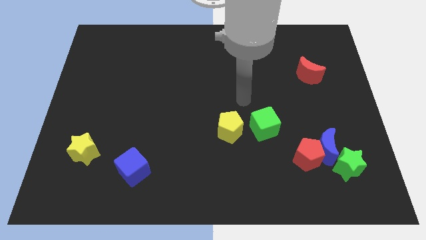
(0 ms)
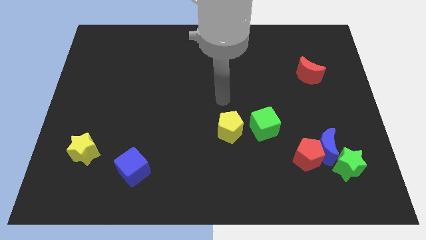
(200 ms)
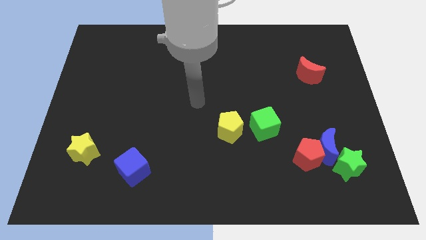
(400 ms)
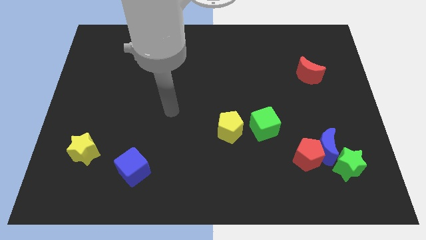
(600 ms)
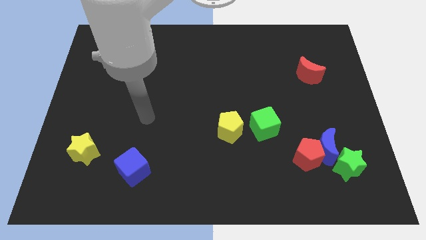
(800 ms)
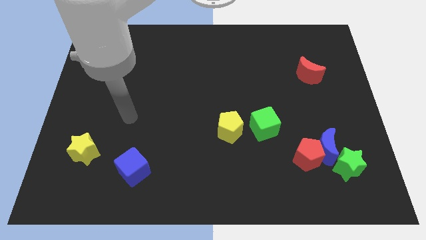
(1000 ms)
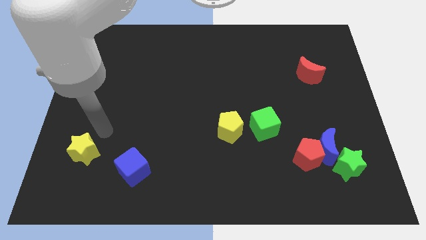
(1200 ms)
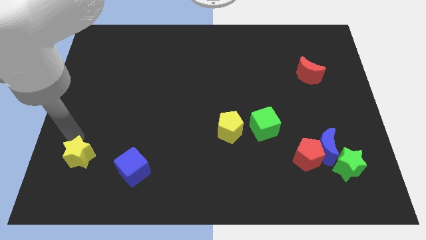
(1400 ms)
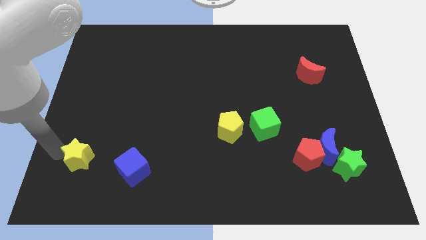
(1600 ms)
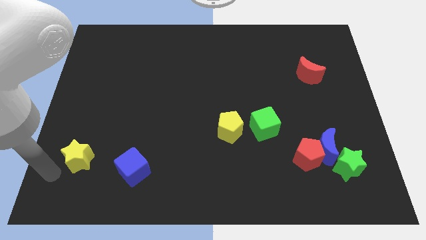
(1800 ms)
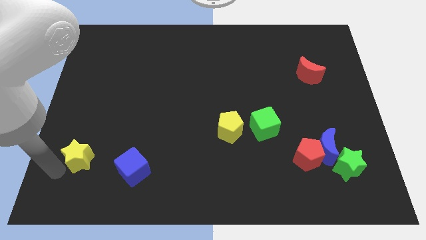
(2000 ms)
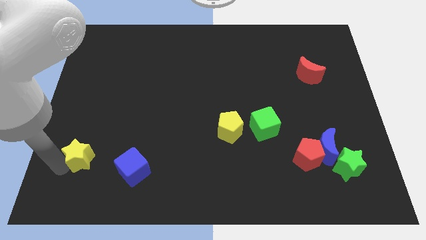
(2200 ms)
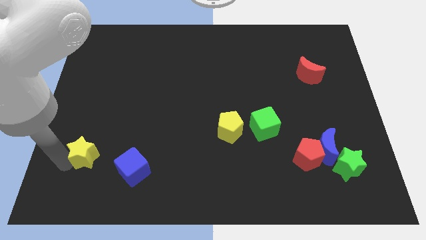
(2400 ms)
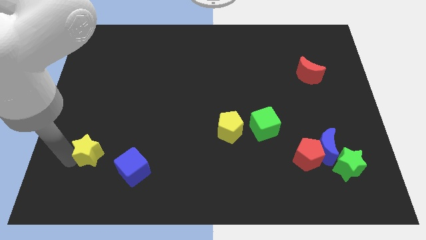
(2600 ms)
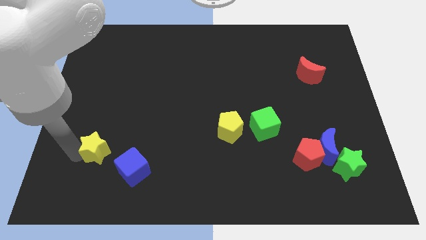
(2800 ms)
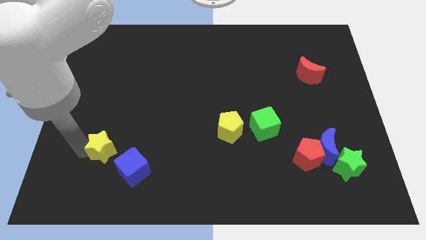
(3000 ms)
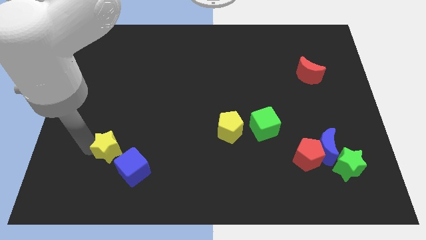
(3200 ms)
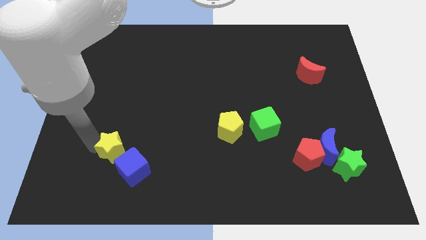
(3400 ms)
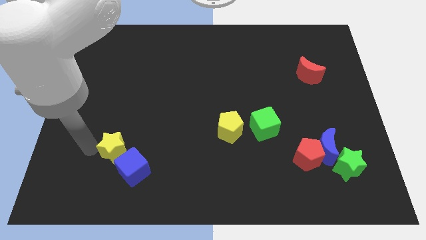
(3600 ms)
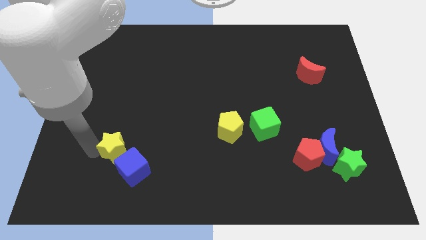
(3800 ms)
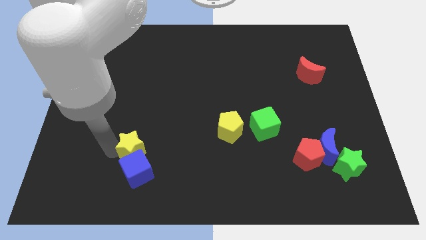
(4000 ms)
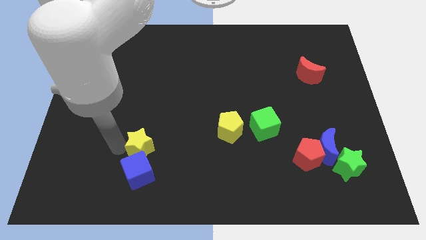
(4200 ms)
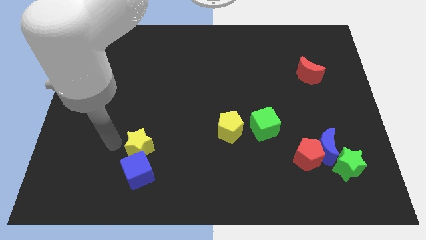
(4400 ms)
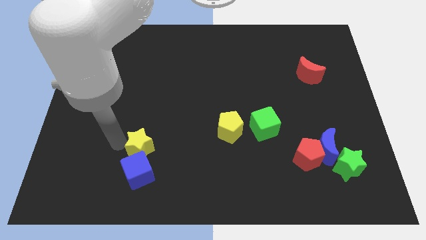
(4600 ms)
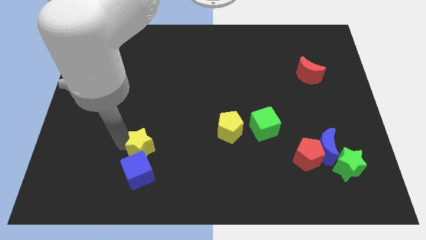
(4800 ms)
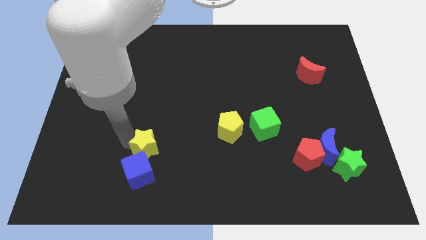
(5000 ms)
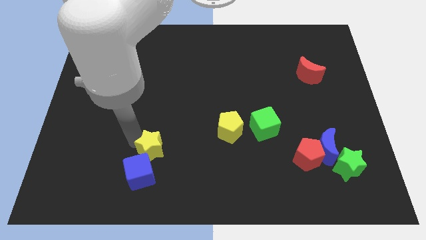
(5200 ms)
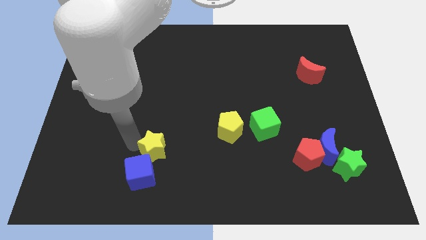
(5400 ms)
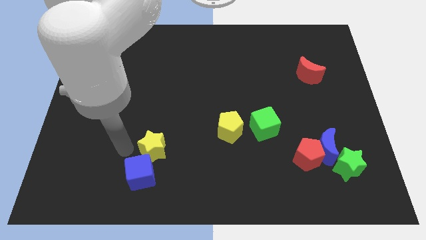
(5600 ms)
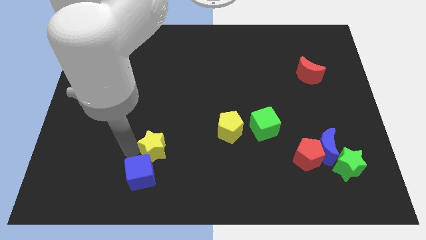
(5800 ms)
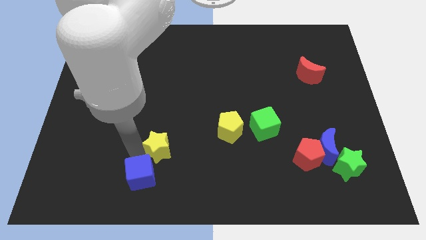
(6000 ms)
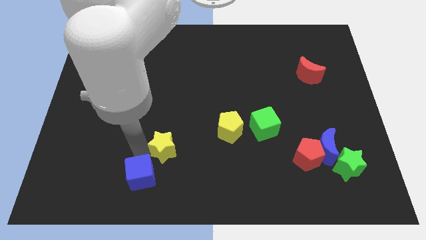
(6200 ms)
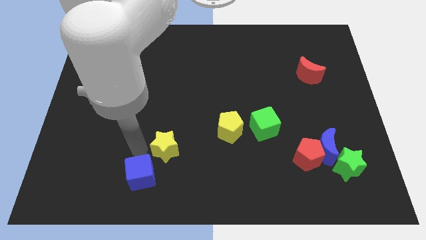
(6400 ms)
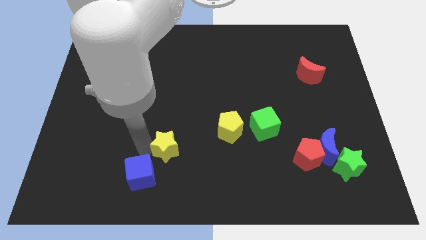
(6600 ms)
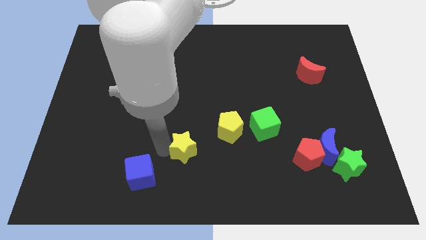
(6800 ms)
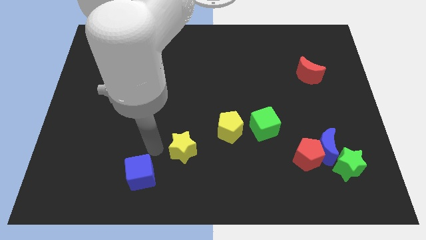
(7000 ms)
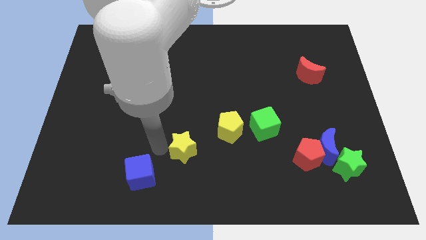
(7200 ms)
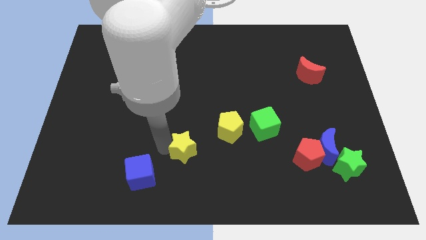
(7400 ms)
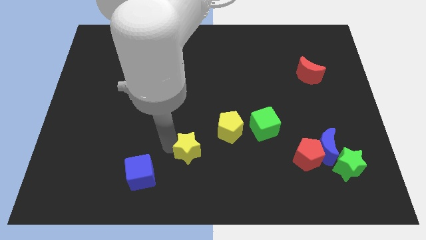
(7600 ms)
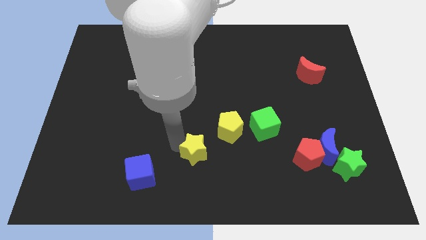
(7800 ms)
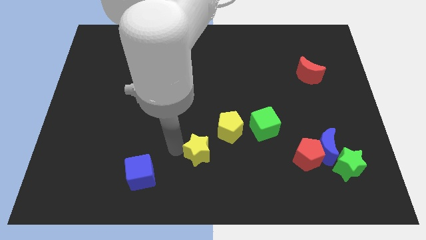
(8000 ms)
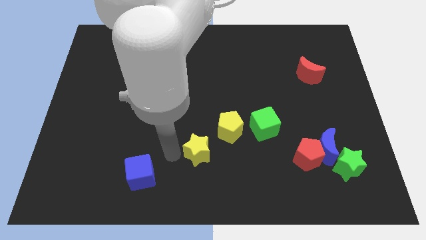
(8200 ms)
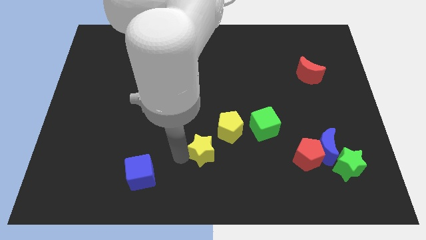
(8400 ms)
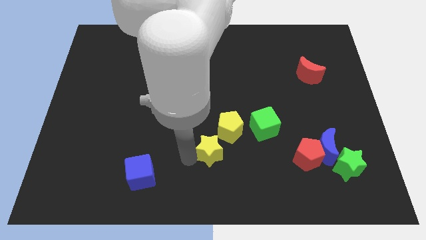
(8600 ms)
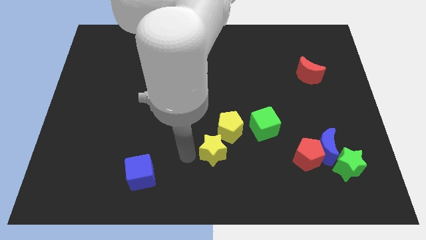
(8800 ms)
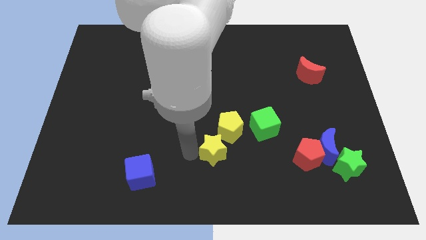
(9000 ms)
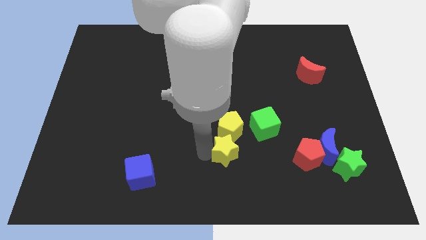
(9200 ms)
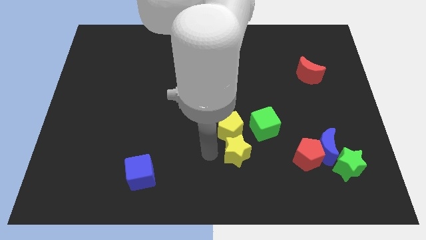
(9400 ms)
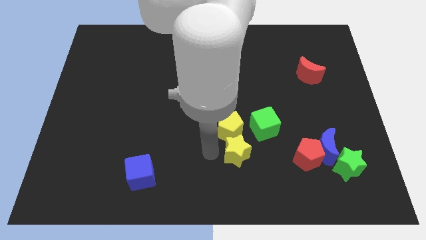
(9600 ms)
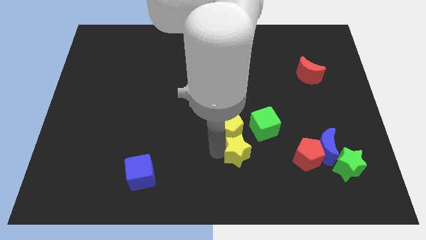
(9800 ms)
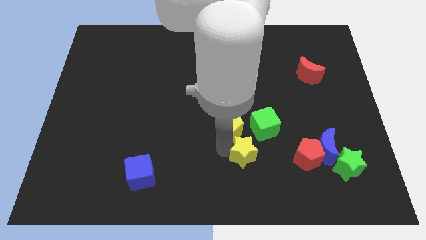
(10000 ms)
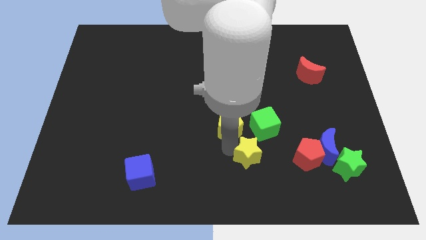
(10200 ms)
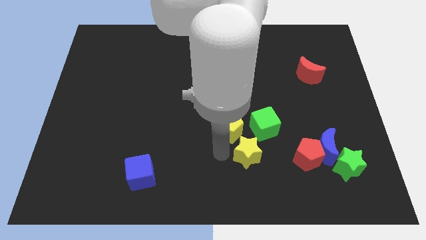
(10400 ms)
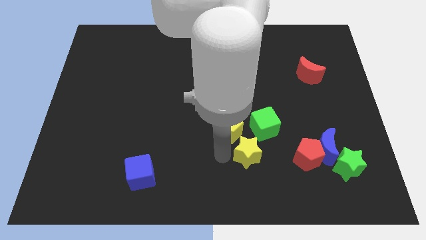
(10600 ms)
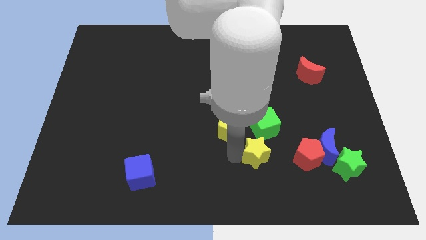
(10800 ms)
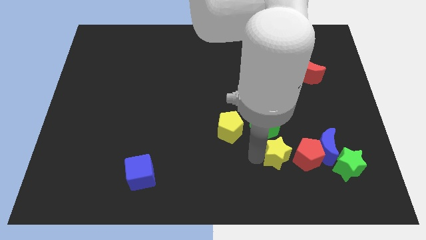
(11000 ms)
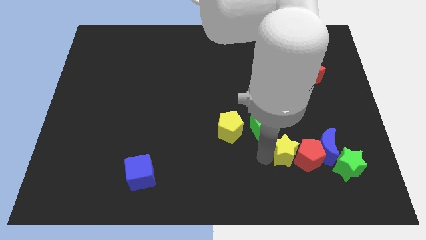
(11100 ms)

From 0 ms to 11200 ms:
push the yellow star towards the red pentagon

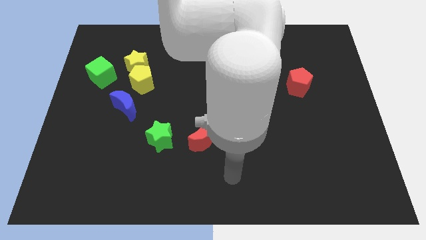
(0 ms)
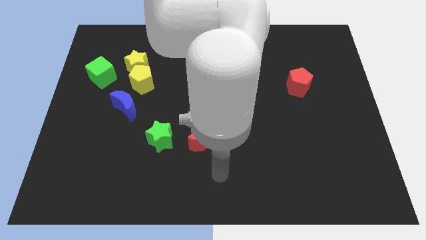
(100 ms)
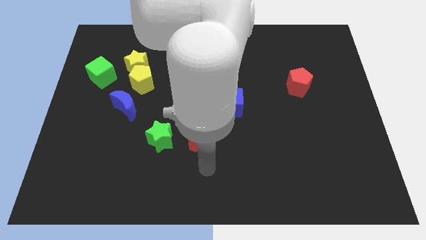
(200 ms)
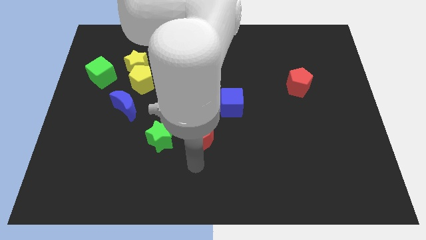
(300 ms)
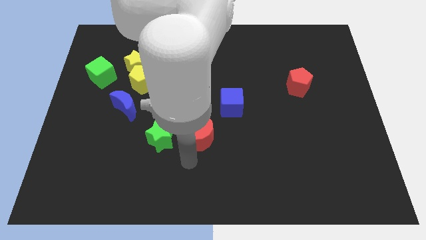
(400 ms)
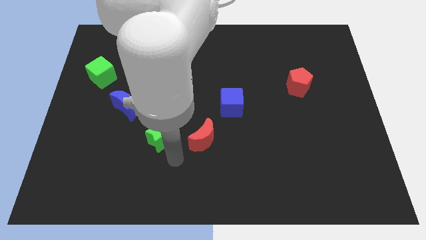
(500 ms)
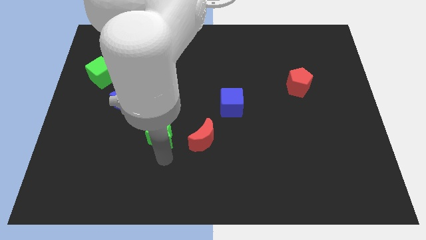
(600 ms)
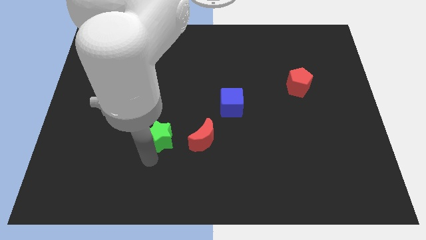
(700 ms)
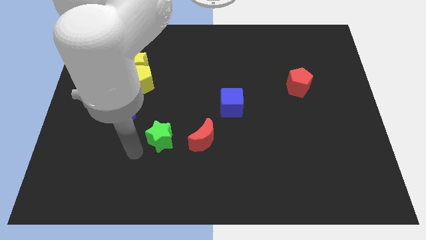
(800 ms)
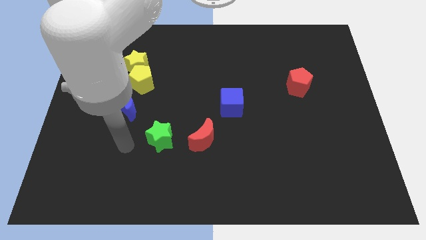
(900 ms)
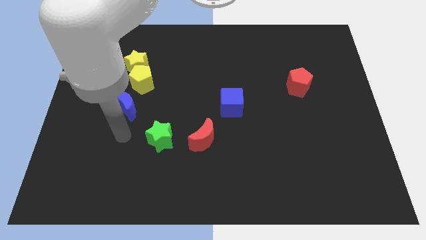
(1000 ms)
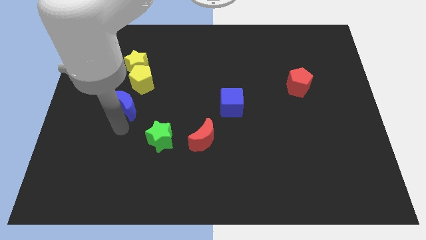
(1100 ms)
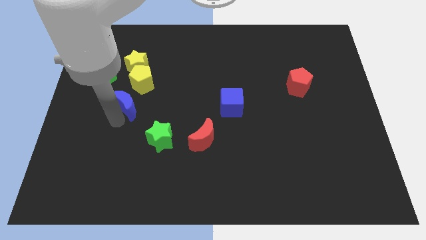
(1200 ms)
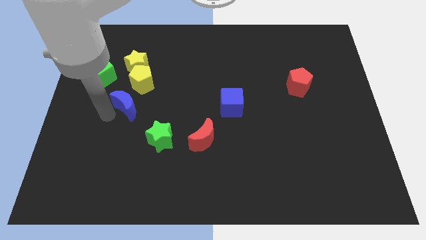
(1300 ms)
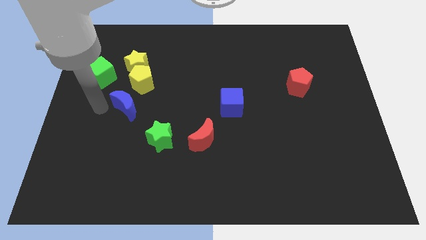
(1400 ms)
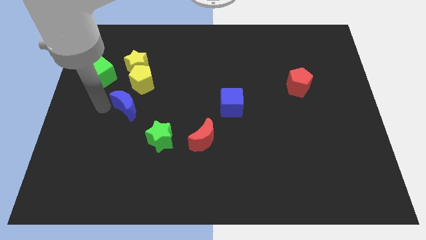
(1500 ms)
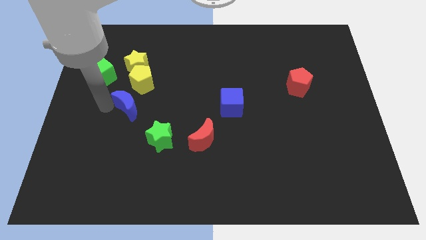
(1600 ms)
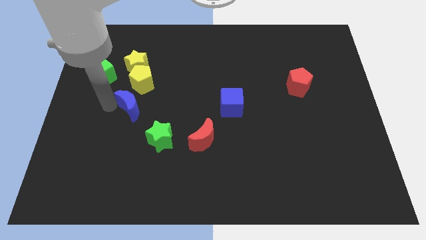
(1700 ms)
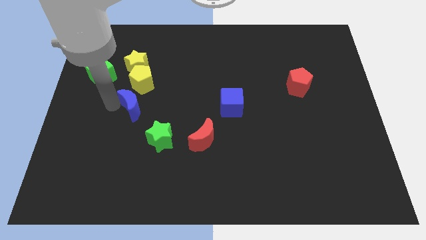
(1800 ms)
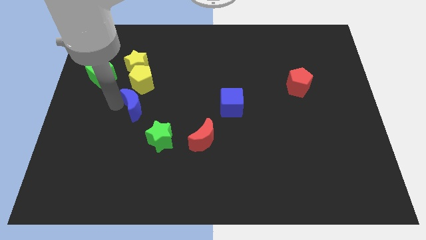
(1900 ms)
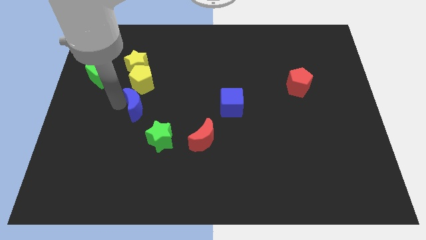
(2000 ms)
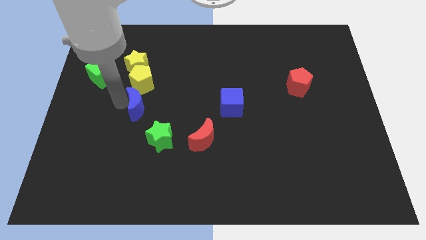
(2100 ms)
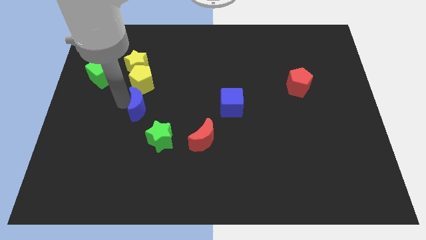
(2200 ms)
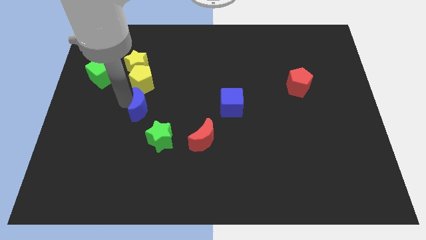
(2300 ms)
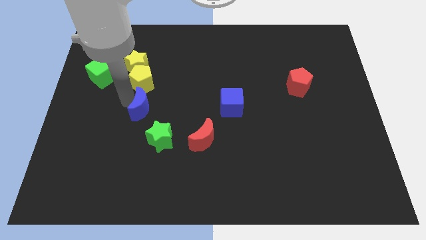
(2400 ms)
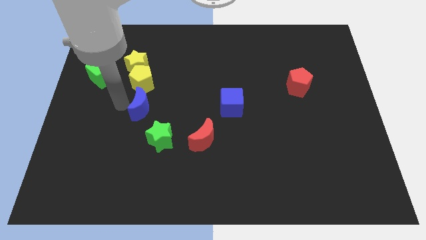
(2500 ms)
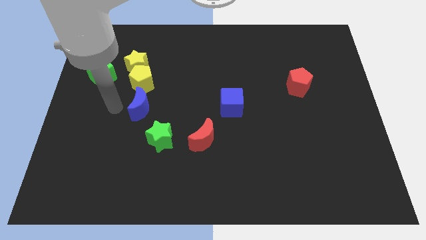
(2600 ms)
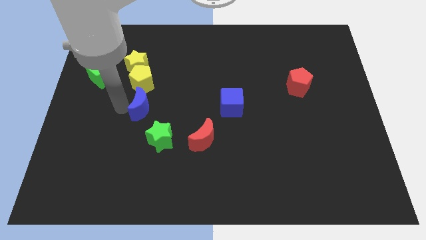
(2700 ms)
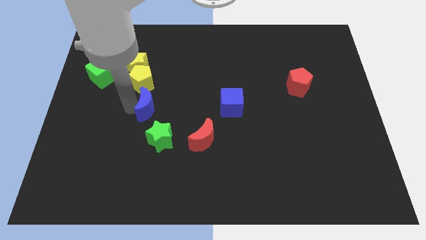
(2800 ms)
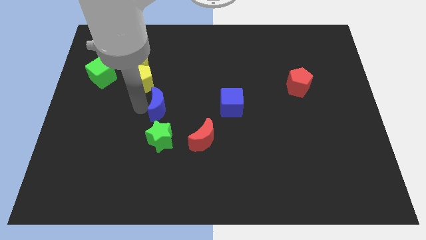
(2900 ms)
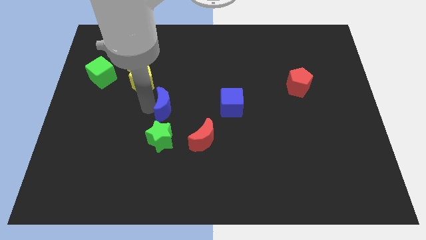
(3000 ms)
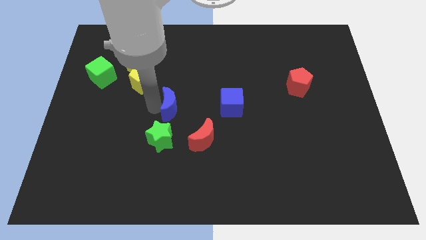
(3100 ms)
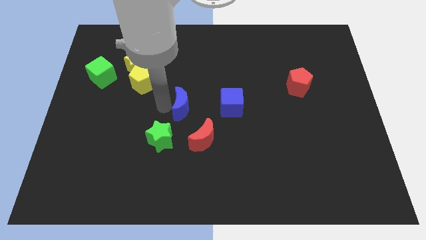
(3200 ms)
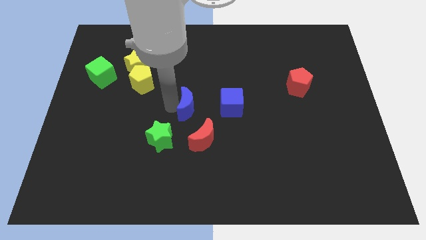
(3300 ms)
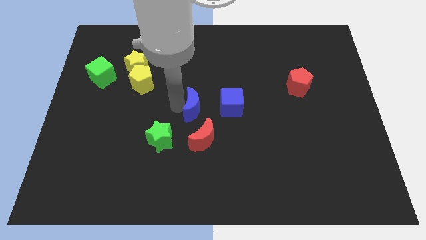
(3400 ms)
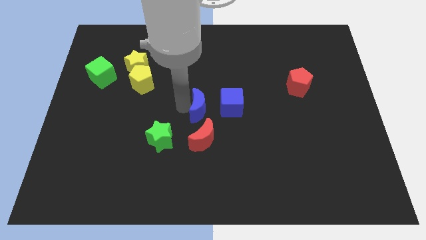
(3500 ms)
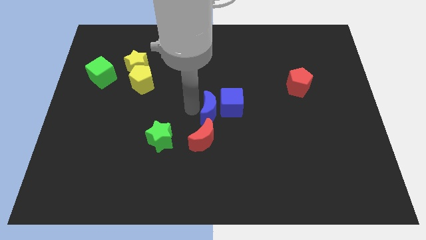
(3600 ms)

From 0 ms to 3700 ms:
slide the blue moon towards the blue cube
